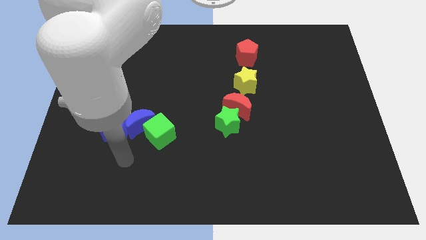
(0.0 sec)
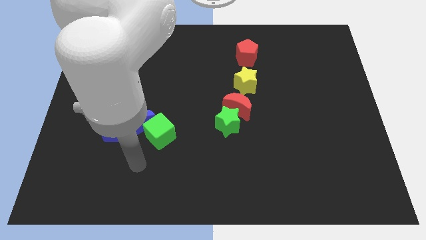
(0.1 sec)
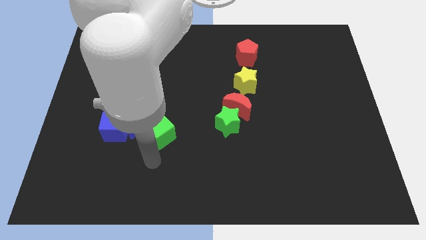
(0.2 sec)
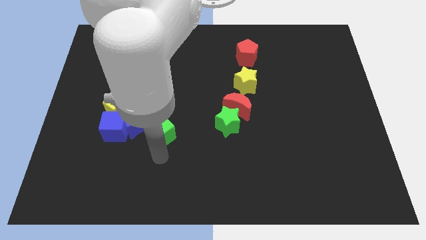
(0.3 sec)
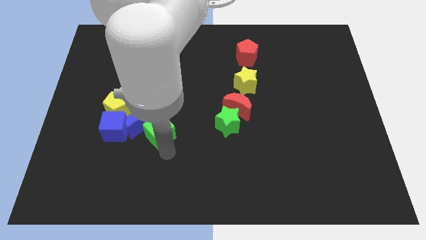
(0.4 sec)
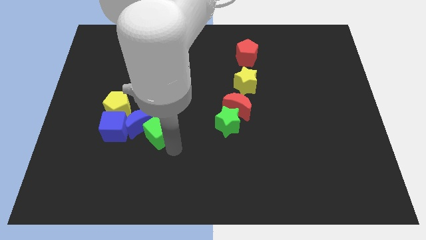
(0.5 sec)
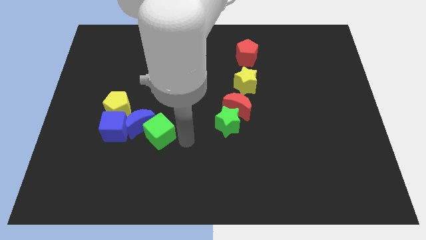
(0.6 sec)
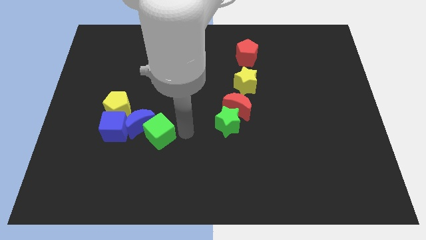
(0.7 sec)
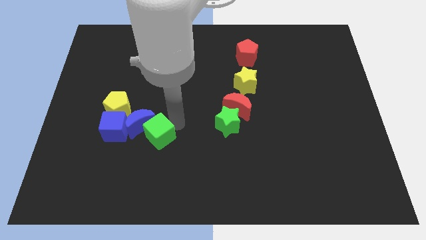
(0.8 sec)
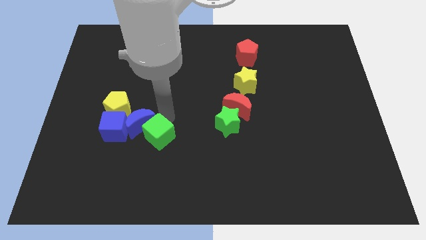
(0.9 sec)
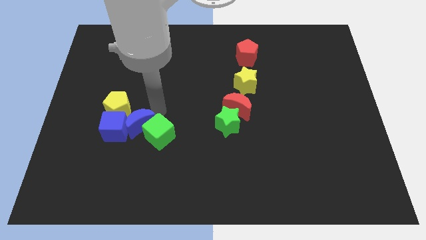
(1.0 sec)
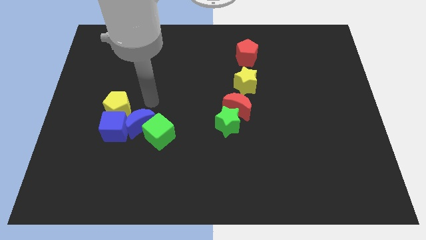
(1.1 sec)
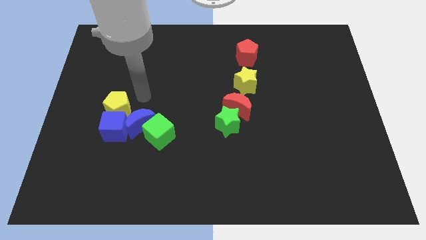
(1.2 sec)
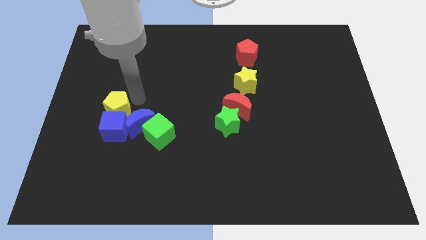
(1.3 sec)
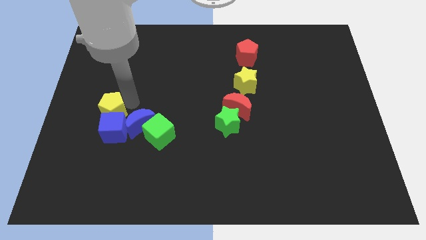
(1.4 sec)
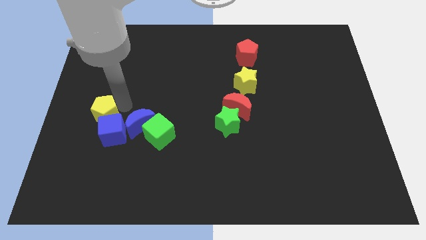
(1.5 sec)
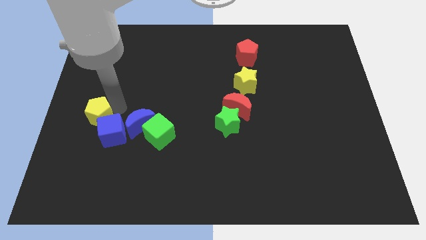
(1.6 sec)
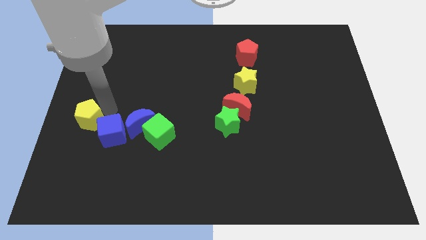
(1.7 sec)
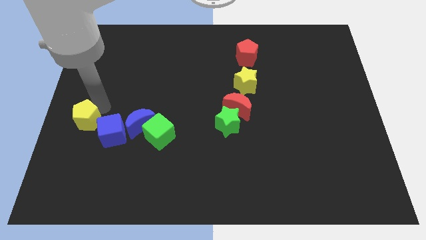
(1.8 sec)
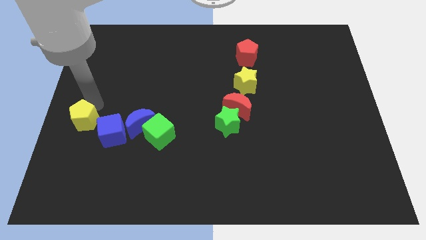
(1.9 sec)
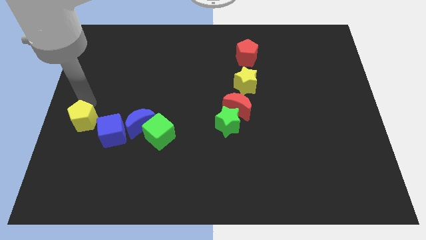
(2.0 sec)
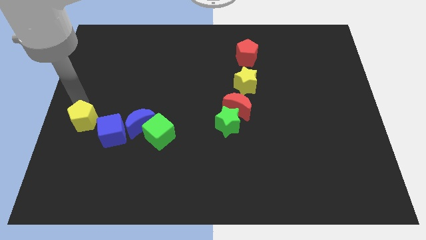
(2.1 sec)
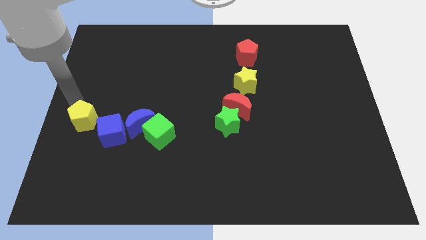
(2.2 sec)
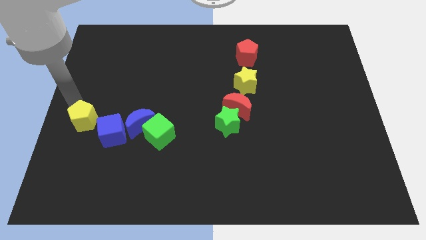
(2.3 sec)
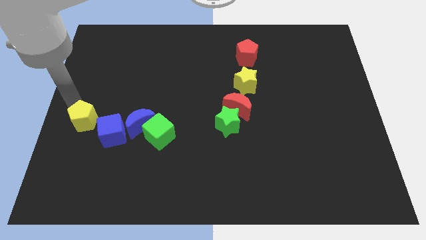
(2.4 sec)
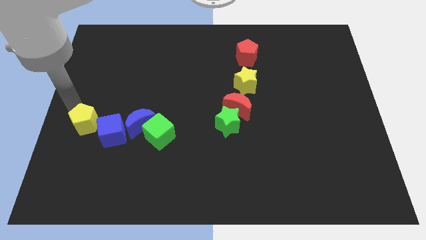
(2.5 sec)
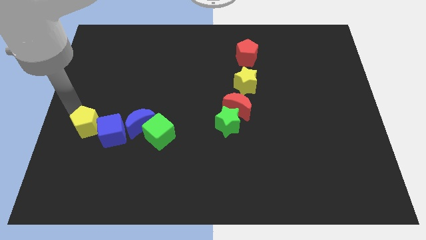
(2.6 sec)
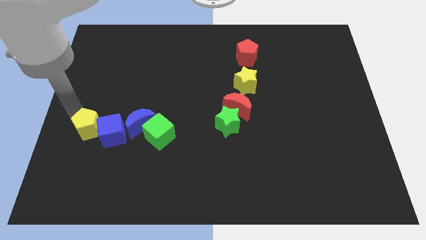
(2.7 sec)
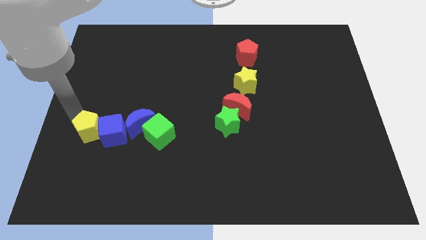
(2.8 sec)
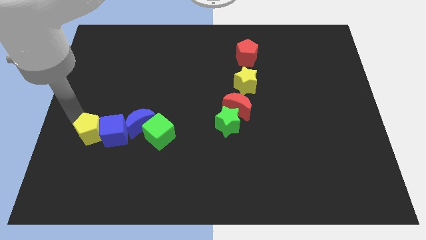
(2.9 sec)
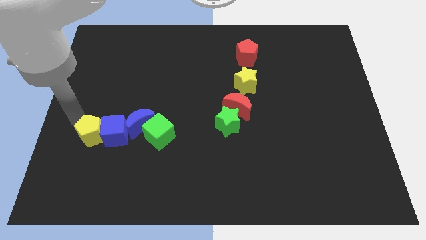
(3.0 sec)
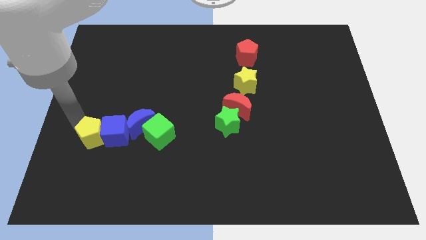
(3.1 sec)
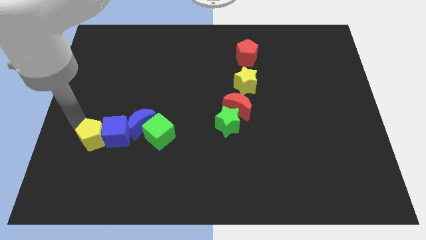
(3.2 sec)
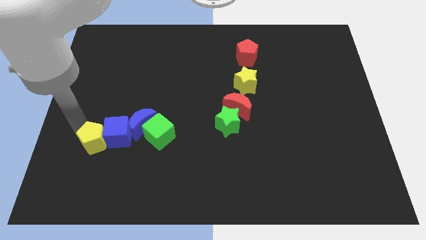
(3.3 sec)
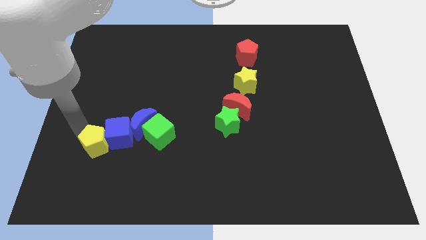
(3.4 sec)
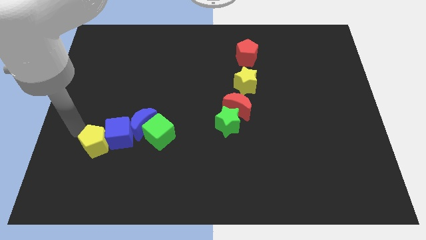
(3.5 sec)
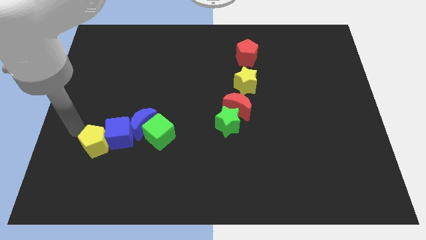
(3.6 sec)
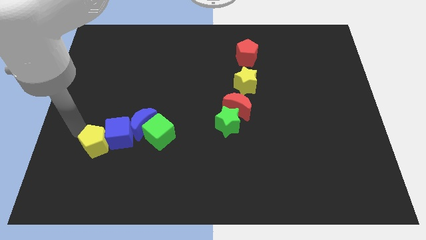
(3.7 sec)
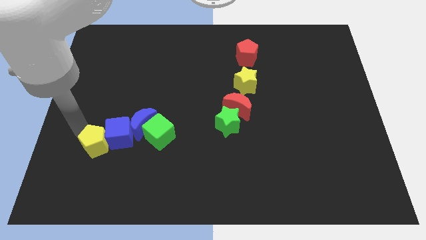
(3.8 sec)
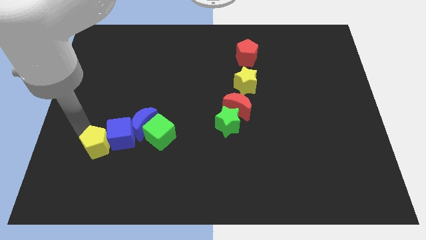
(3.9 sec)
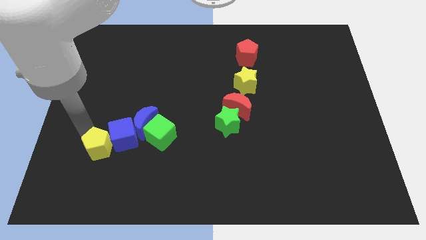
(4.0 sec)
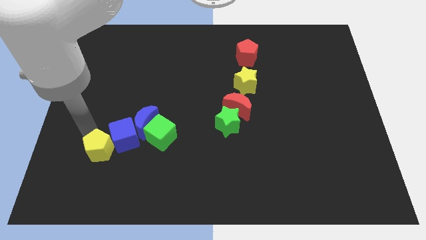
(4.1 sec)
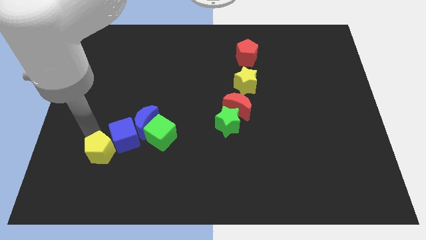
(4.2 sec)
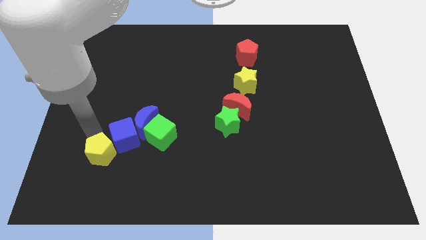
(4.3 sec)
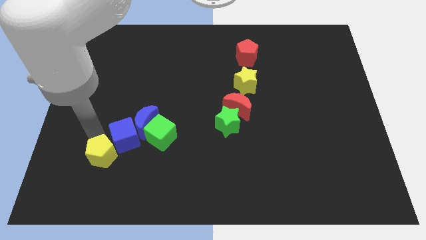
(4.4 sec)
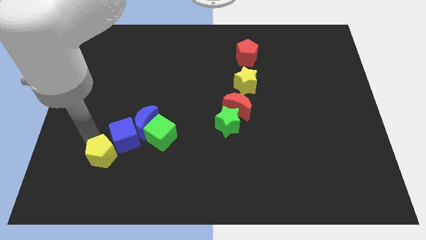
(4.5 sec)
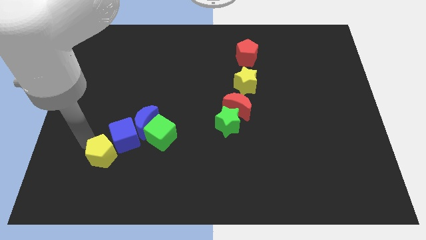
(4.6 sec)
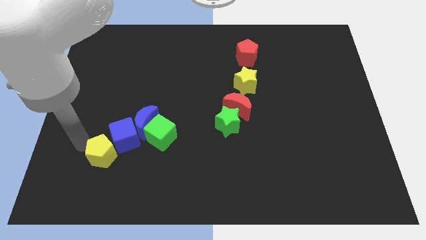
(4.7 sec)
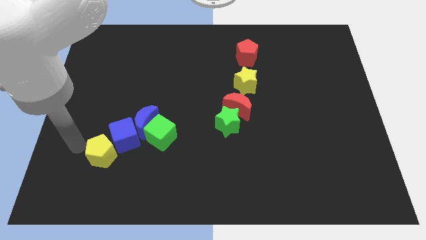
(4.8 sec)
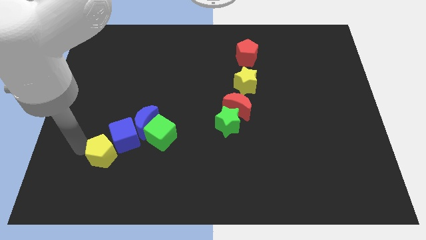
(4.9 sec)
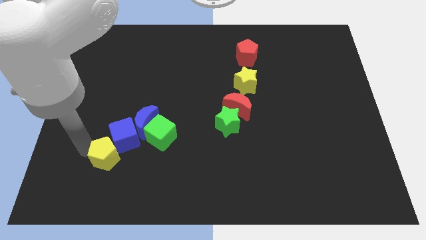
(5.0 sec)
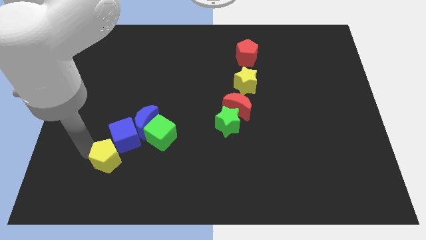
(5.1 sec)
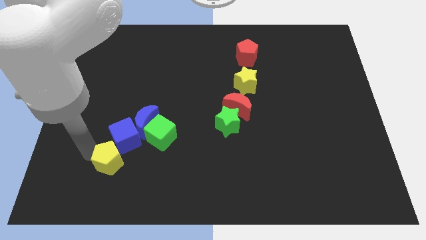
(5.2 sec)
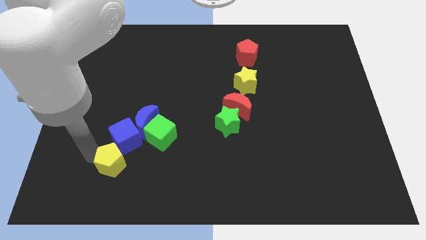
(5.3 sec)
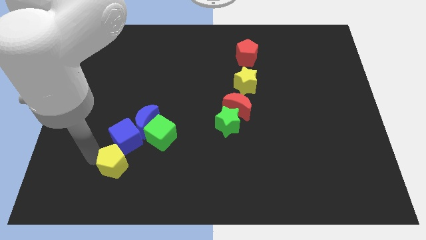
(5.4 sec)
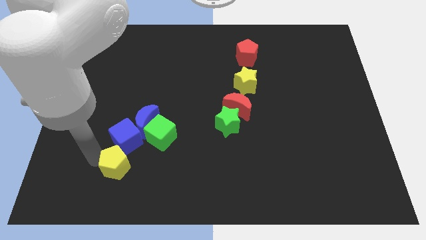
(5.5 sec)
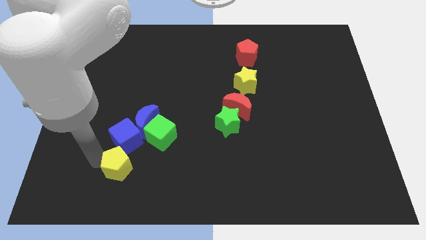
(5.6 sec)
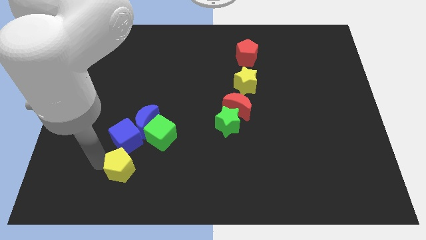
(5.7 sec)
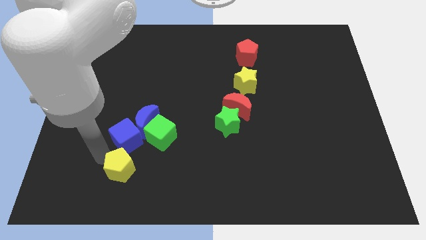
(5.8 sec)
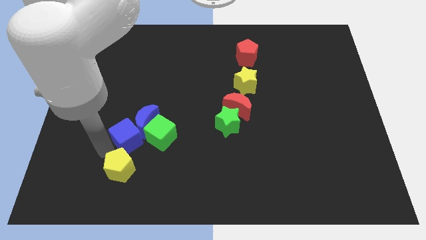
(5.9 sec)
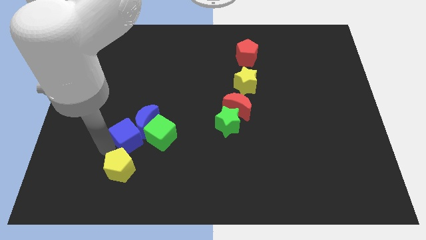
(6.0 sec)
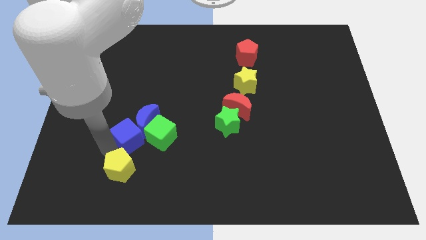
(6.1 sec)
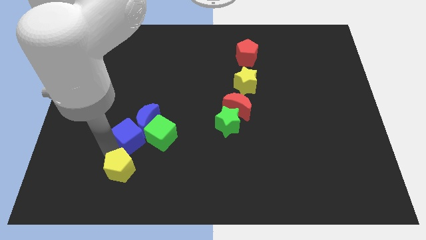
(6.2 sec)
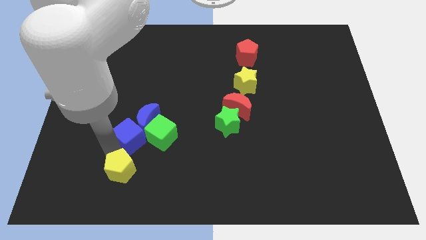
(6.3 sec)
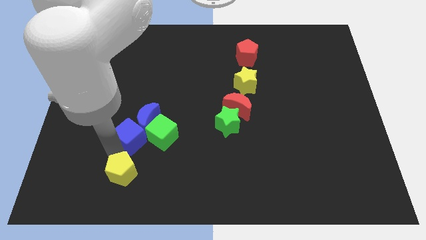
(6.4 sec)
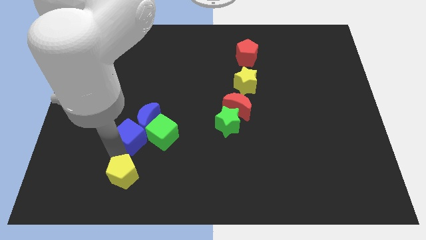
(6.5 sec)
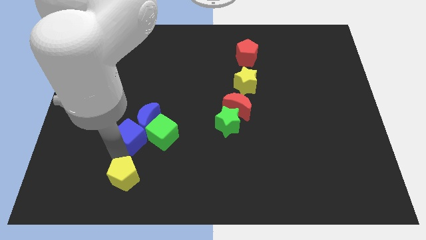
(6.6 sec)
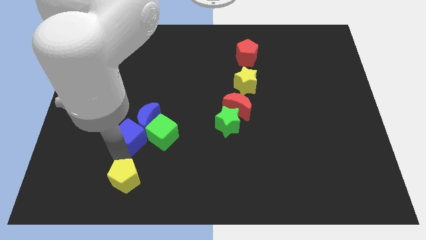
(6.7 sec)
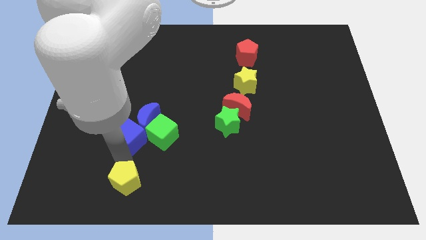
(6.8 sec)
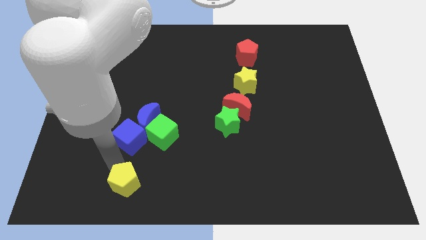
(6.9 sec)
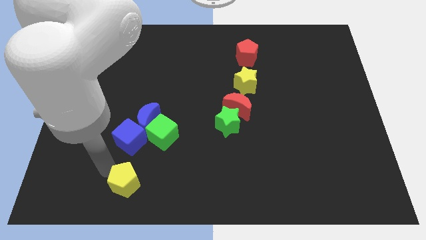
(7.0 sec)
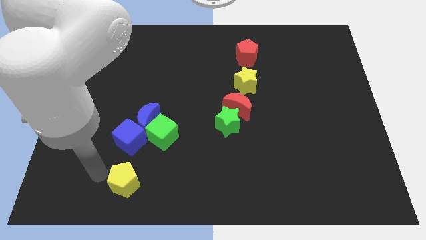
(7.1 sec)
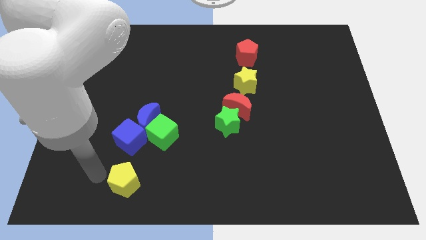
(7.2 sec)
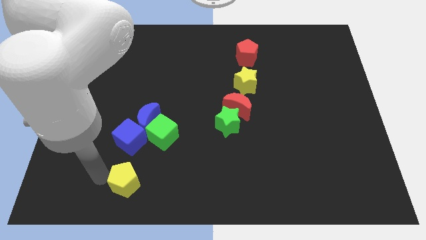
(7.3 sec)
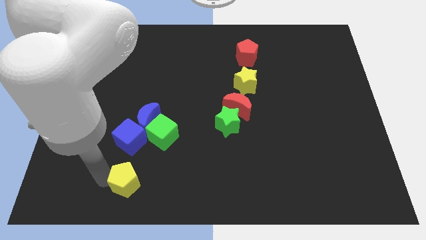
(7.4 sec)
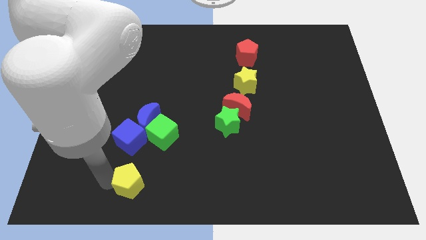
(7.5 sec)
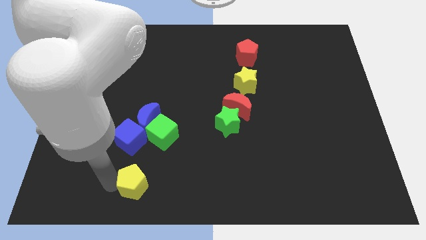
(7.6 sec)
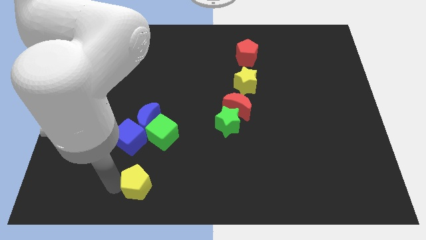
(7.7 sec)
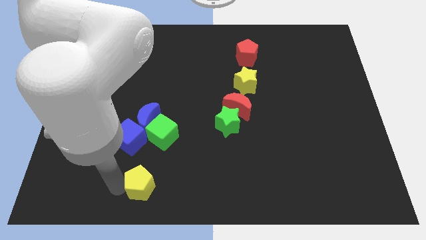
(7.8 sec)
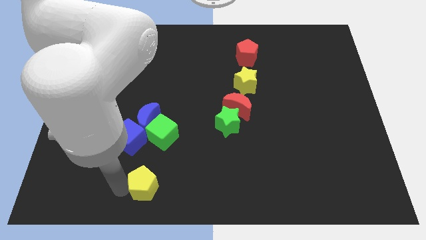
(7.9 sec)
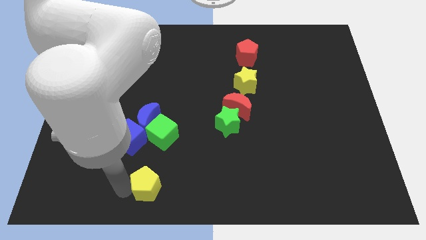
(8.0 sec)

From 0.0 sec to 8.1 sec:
slide the yellow pentagon to the bottom side
